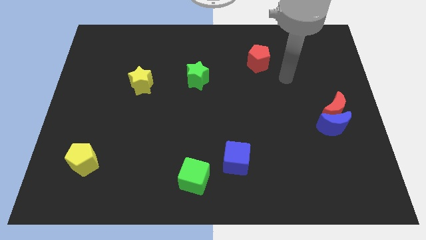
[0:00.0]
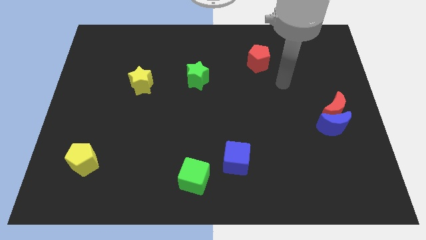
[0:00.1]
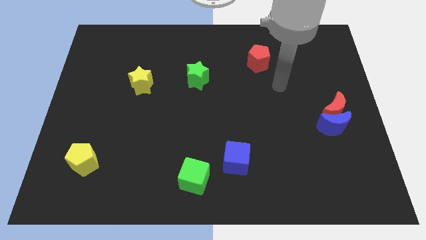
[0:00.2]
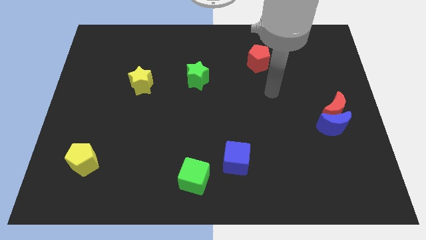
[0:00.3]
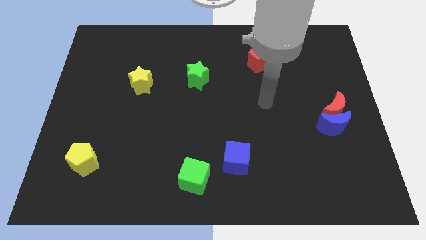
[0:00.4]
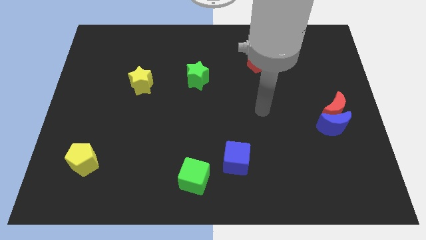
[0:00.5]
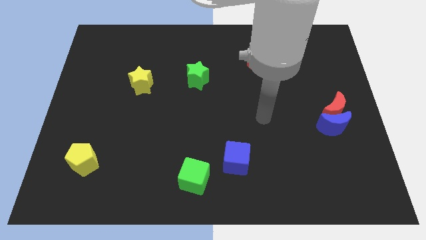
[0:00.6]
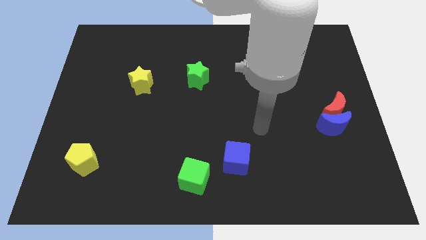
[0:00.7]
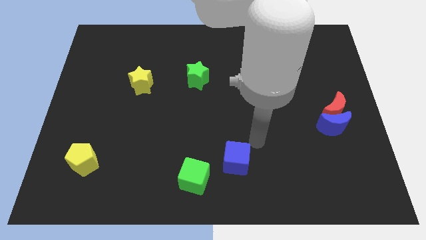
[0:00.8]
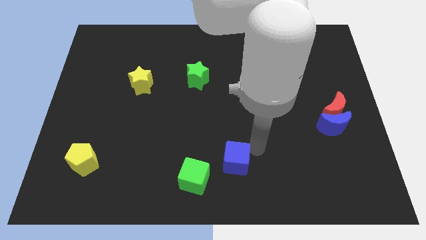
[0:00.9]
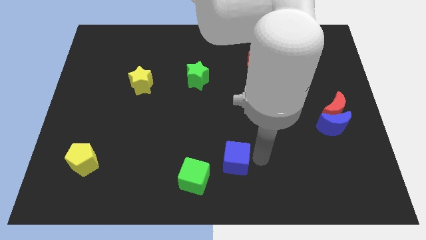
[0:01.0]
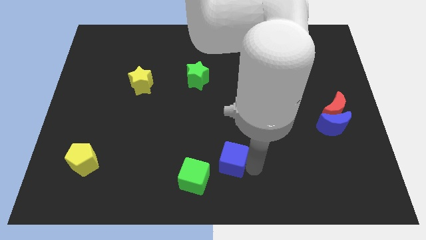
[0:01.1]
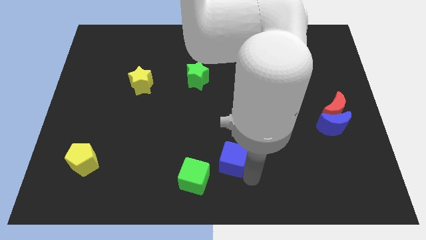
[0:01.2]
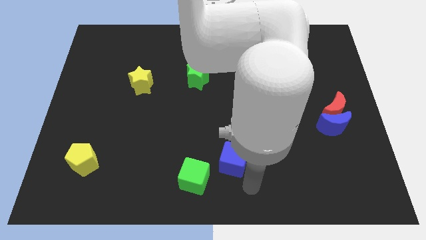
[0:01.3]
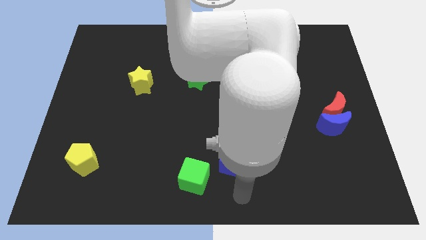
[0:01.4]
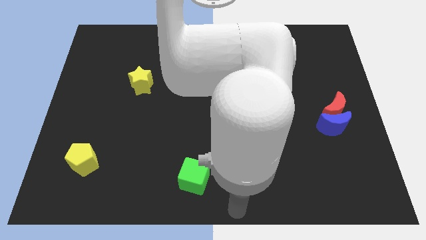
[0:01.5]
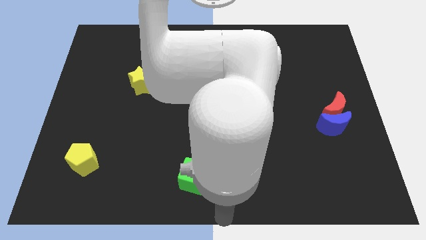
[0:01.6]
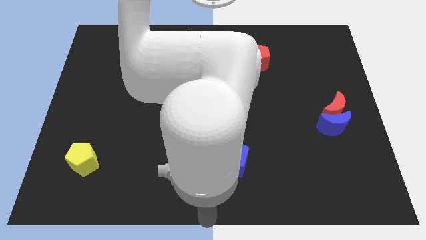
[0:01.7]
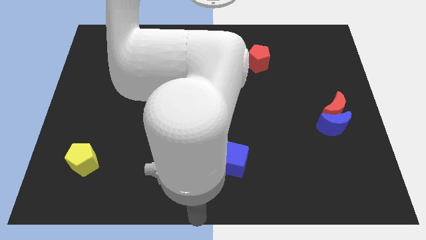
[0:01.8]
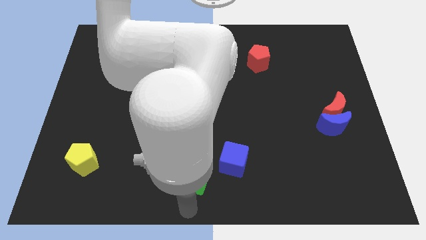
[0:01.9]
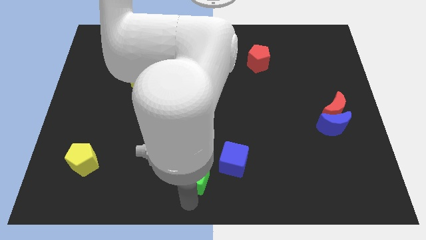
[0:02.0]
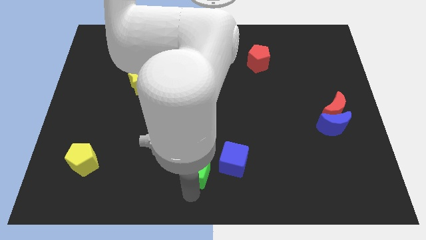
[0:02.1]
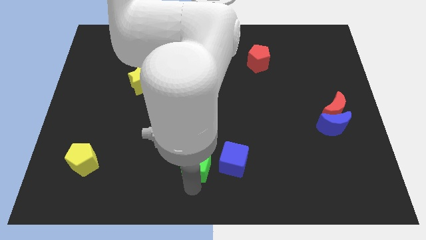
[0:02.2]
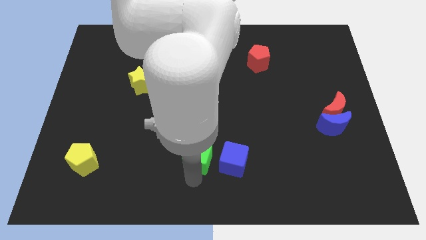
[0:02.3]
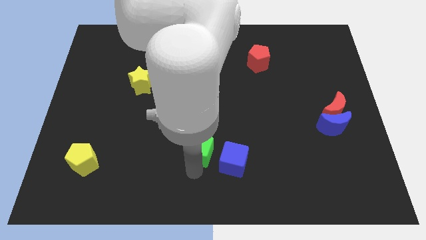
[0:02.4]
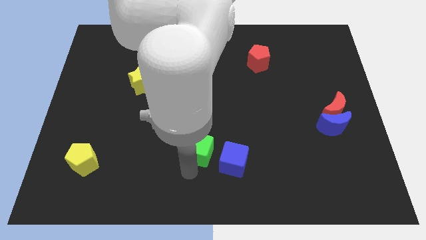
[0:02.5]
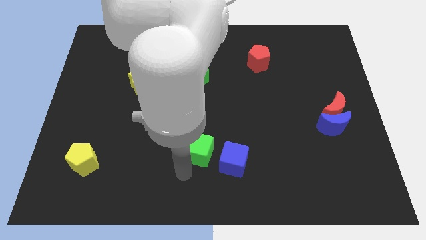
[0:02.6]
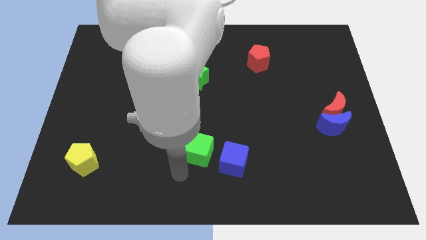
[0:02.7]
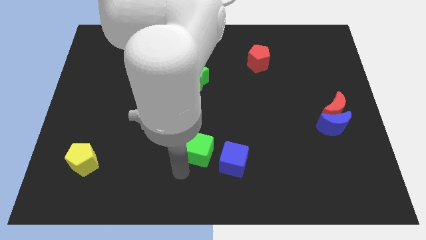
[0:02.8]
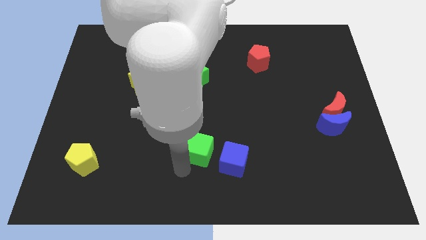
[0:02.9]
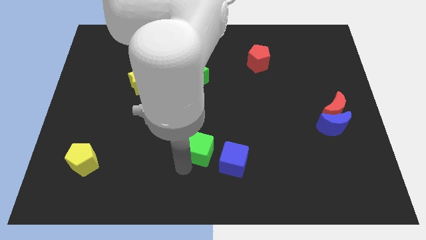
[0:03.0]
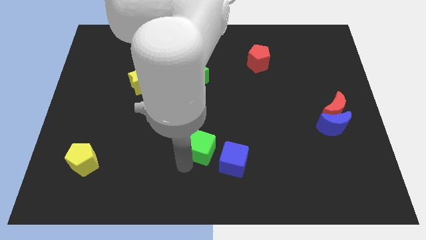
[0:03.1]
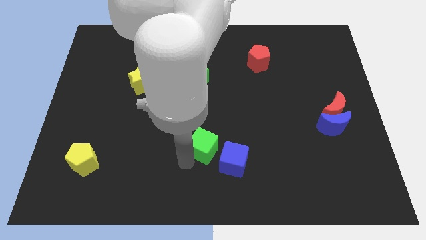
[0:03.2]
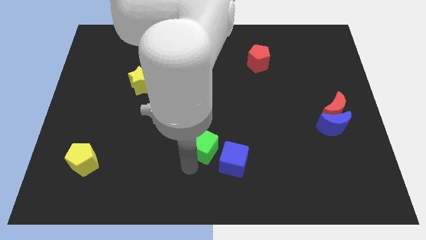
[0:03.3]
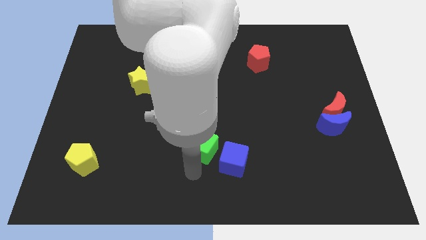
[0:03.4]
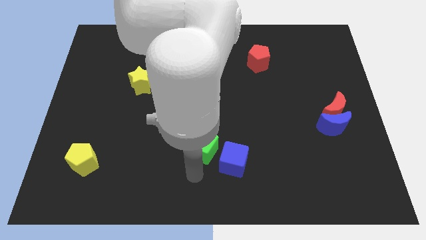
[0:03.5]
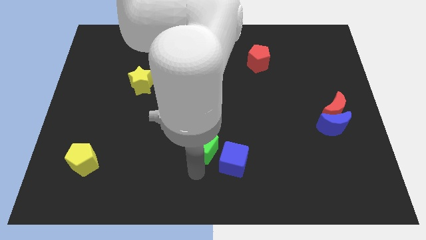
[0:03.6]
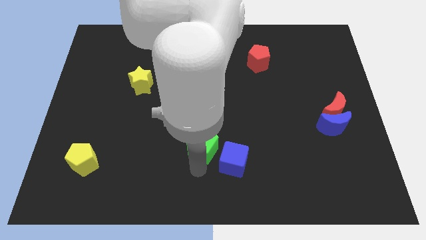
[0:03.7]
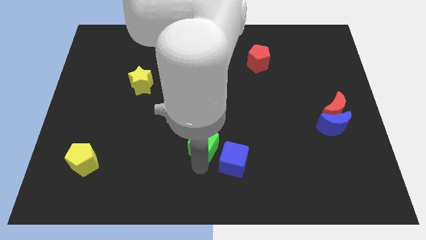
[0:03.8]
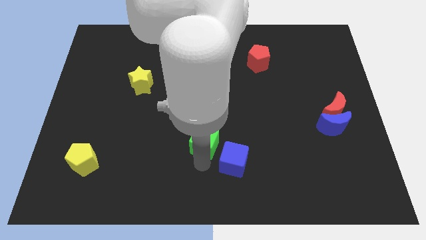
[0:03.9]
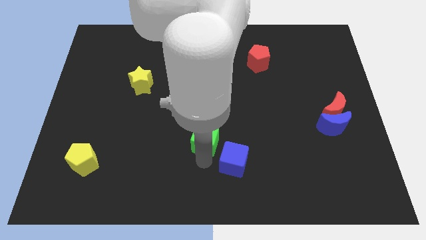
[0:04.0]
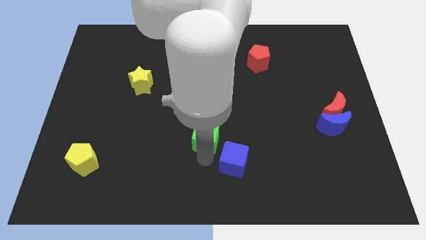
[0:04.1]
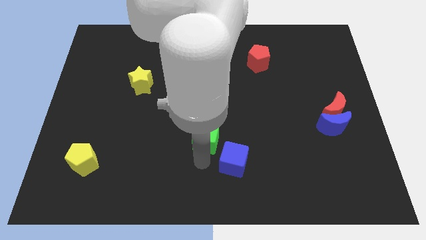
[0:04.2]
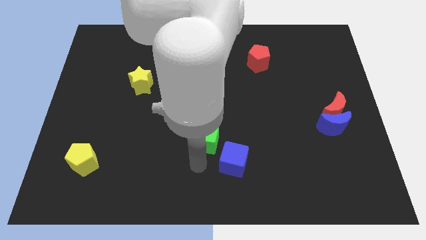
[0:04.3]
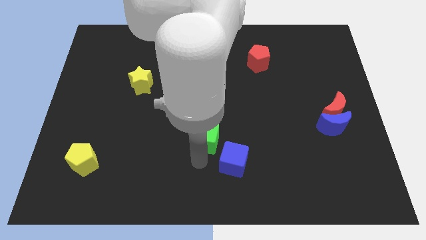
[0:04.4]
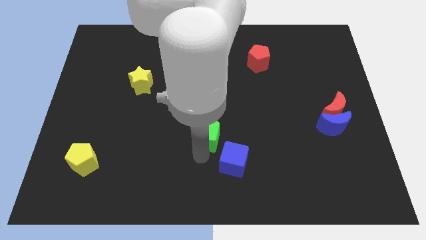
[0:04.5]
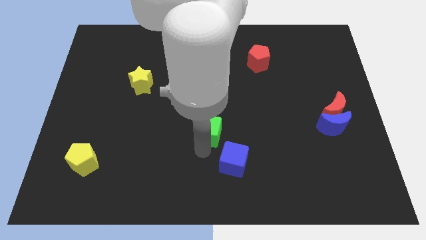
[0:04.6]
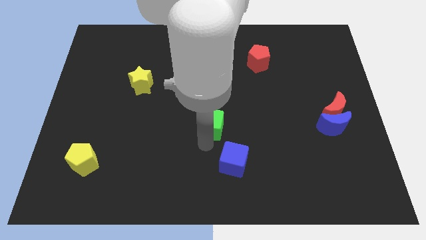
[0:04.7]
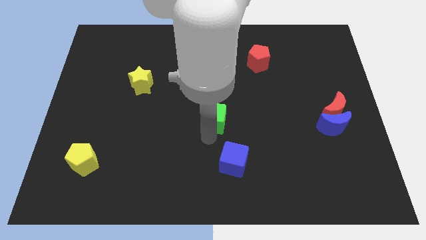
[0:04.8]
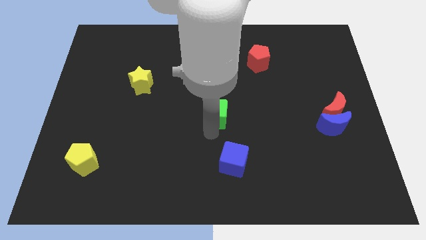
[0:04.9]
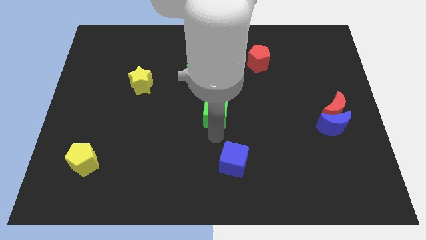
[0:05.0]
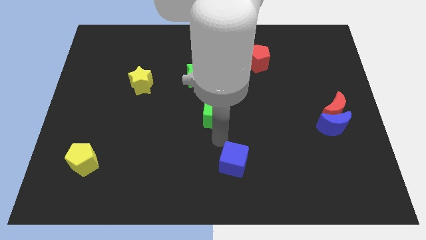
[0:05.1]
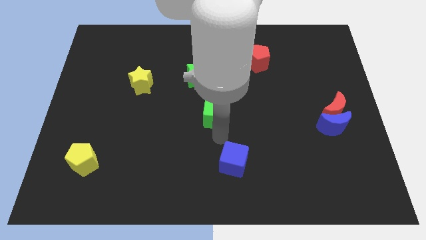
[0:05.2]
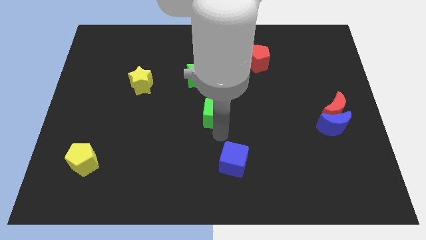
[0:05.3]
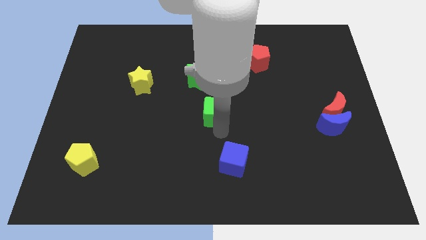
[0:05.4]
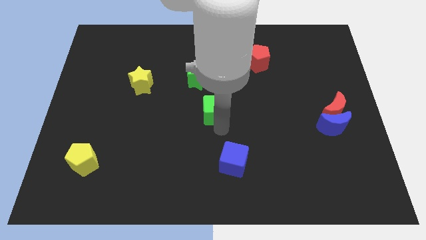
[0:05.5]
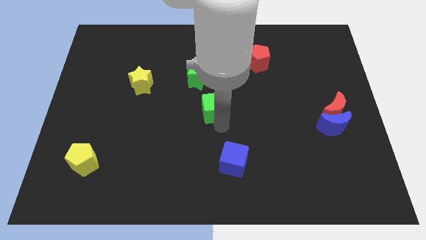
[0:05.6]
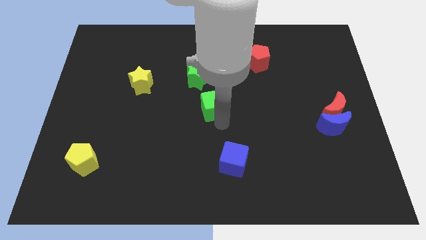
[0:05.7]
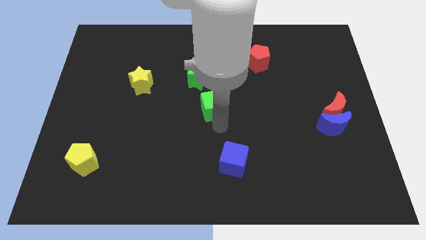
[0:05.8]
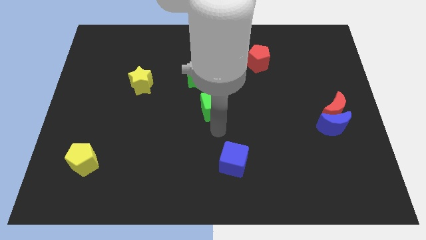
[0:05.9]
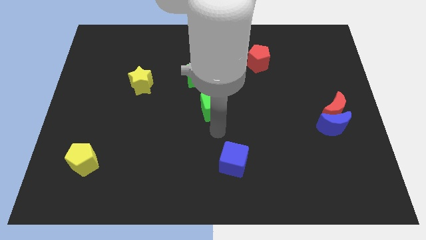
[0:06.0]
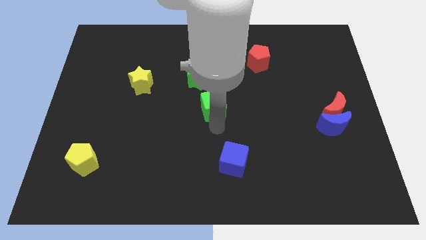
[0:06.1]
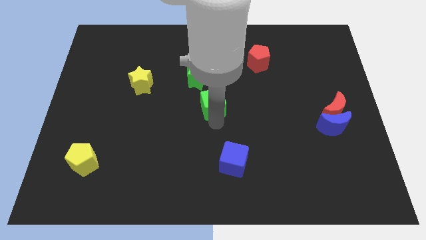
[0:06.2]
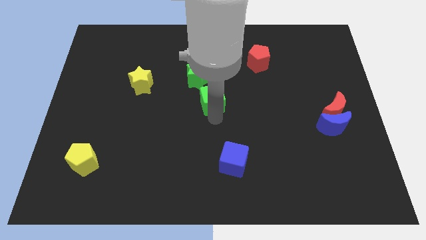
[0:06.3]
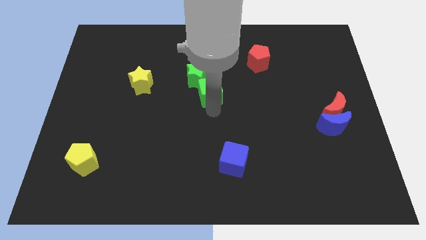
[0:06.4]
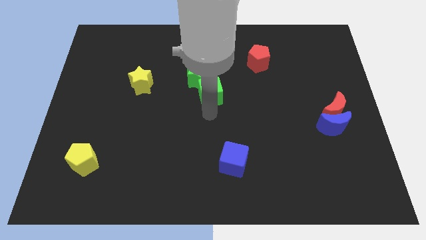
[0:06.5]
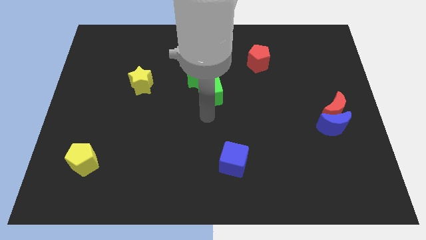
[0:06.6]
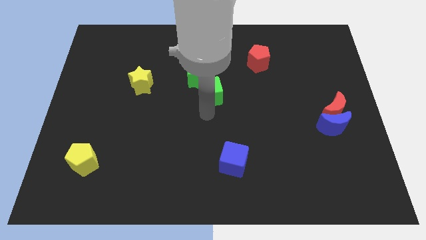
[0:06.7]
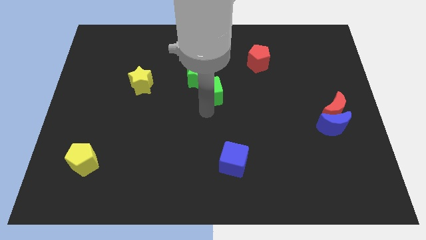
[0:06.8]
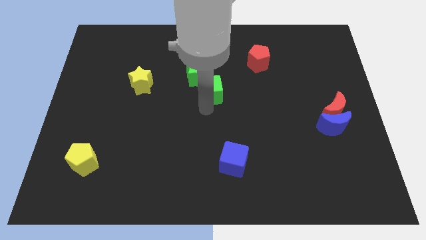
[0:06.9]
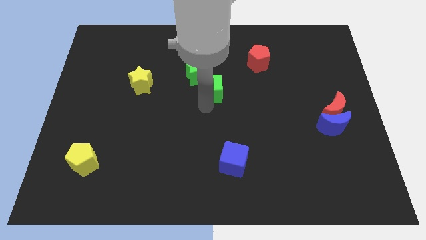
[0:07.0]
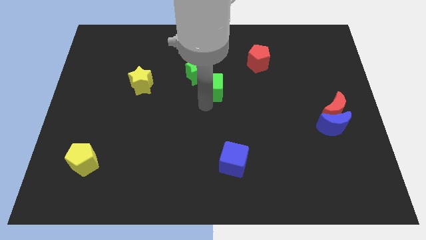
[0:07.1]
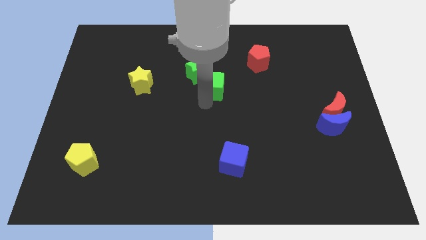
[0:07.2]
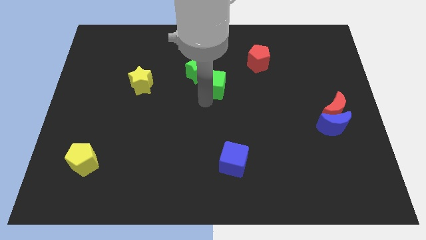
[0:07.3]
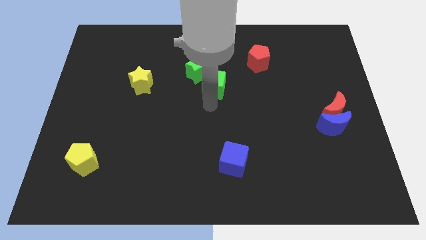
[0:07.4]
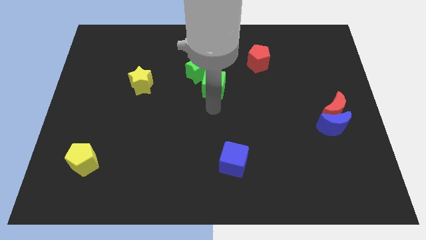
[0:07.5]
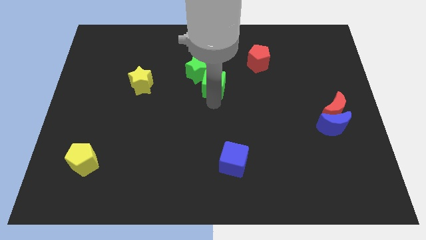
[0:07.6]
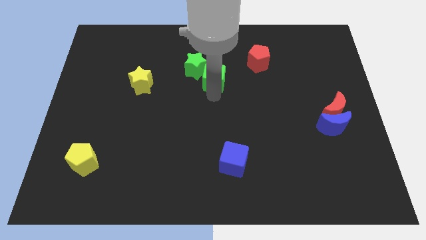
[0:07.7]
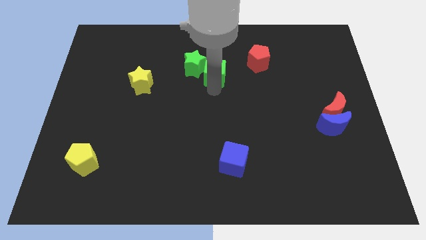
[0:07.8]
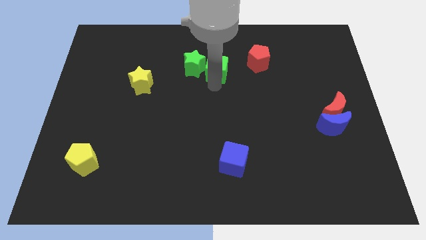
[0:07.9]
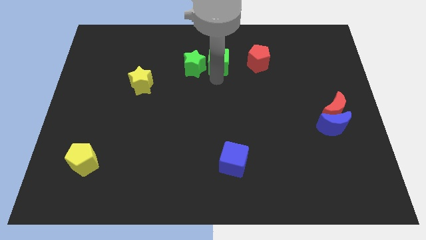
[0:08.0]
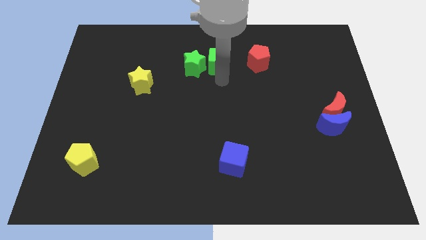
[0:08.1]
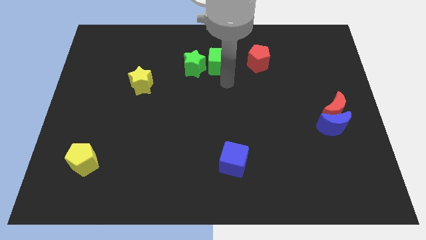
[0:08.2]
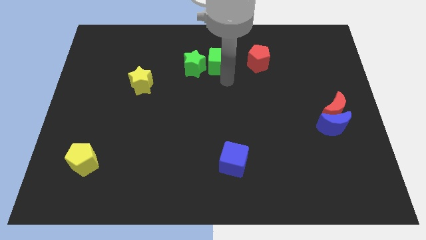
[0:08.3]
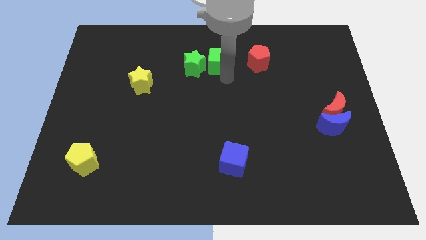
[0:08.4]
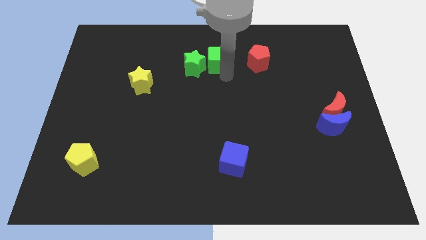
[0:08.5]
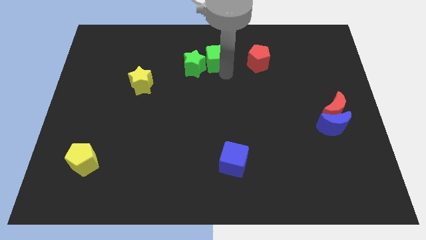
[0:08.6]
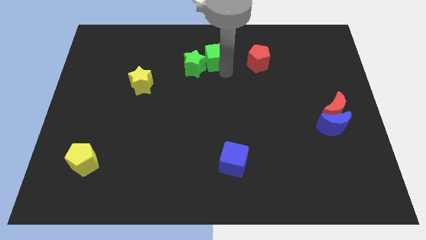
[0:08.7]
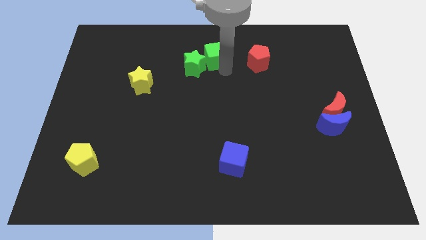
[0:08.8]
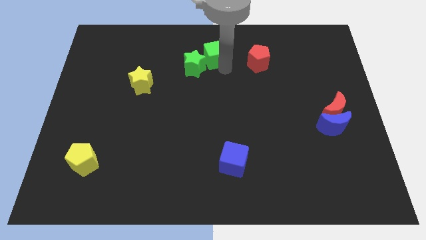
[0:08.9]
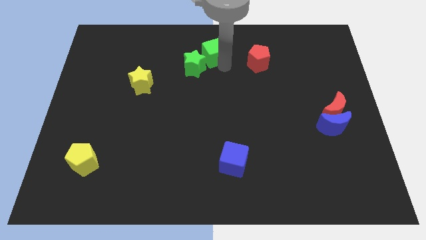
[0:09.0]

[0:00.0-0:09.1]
put the green cube to the top side
